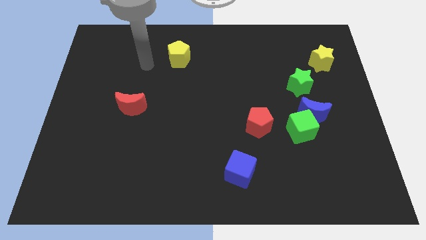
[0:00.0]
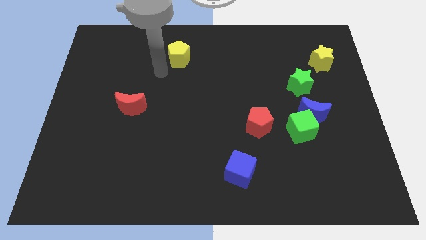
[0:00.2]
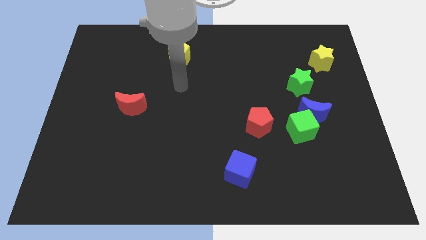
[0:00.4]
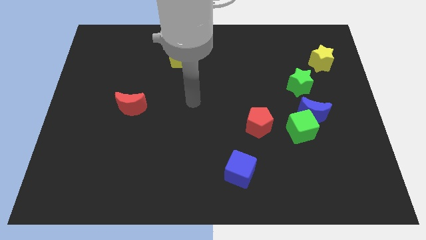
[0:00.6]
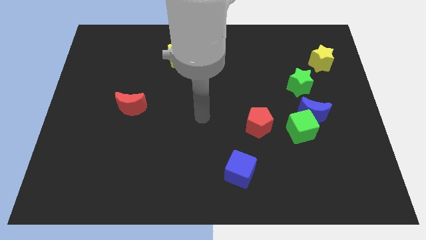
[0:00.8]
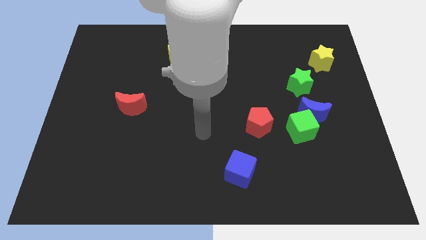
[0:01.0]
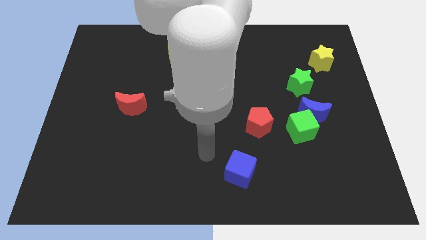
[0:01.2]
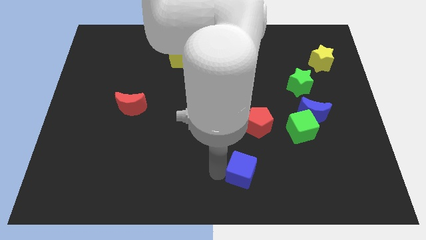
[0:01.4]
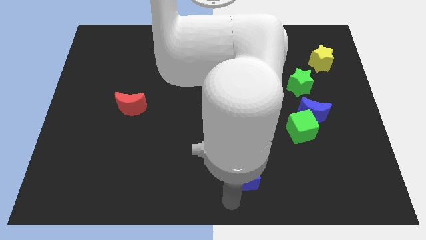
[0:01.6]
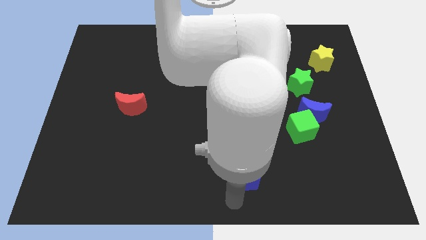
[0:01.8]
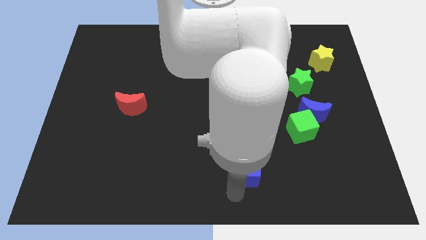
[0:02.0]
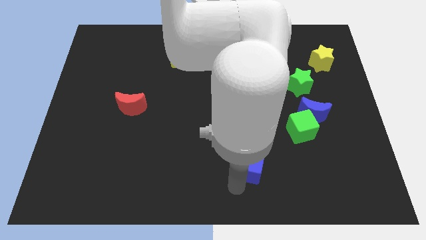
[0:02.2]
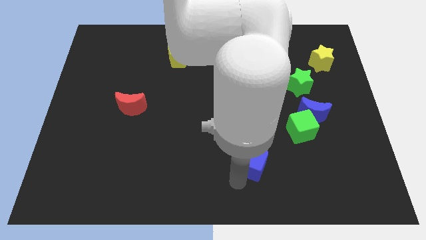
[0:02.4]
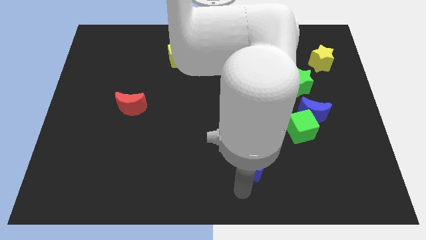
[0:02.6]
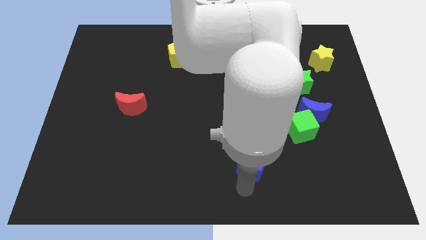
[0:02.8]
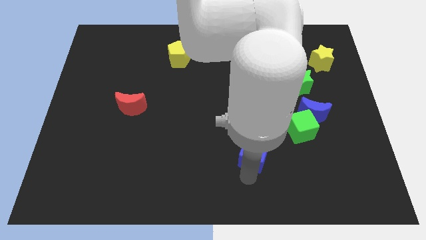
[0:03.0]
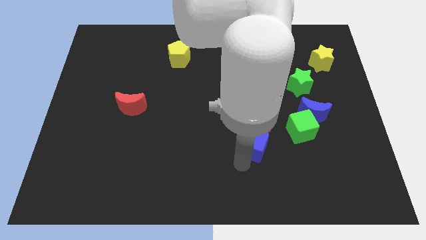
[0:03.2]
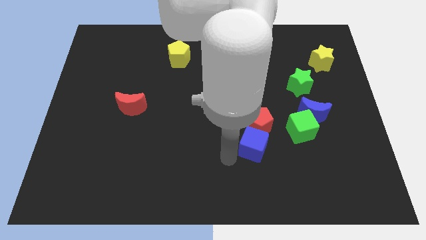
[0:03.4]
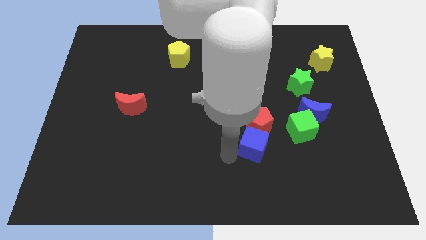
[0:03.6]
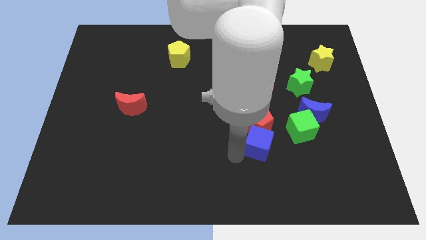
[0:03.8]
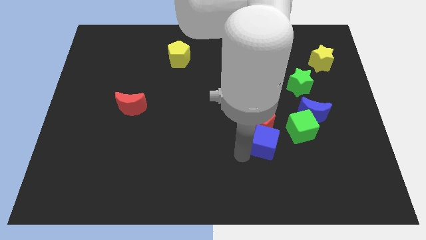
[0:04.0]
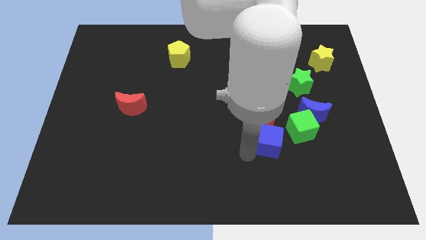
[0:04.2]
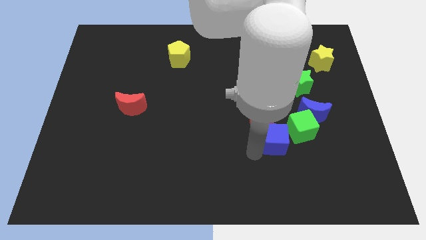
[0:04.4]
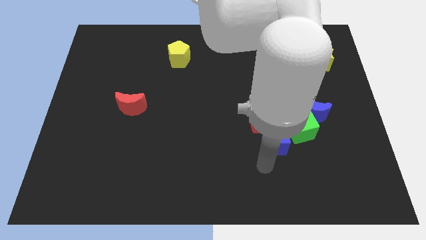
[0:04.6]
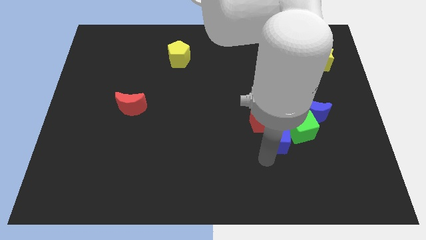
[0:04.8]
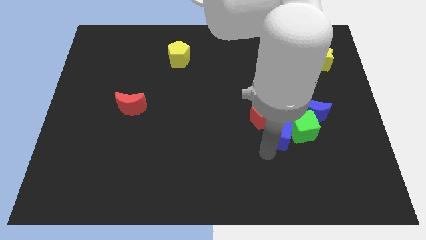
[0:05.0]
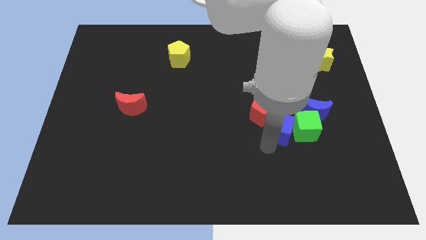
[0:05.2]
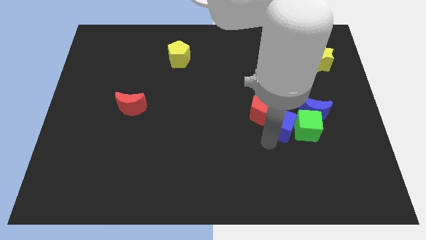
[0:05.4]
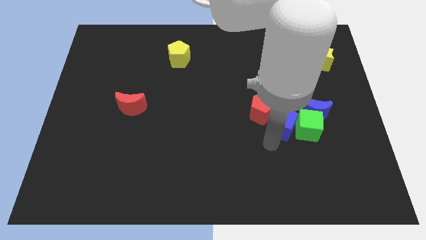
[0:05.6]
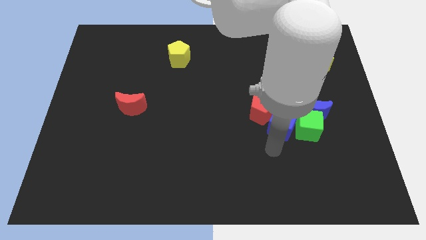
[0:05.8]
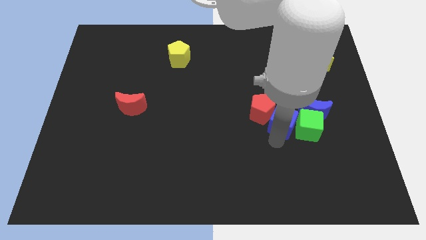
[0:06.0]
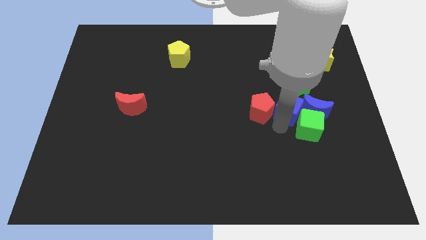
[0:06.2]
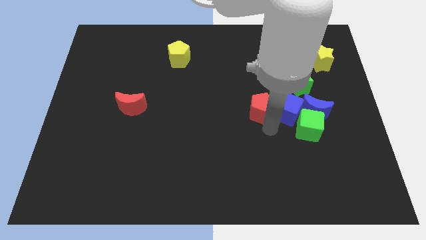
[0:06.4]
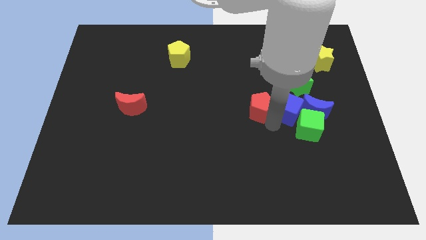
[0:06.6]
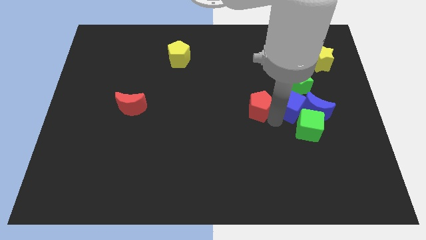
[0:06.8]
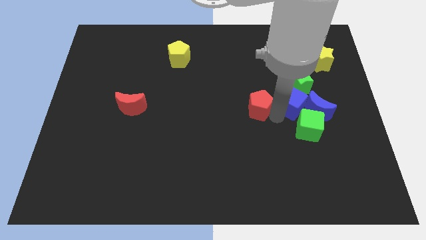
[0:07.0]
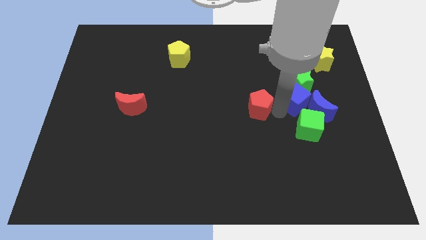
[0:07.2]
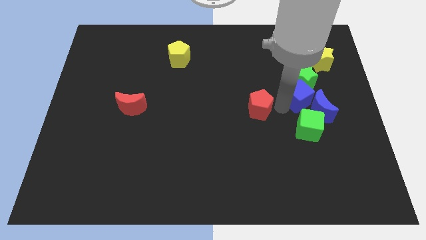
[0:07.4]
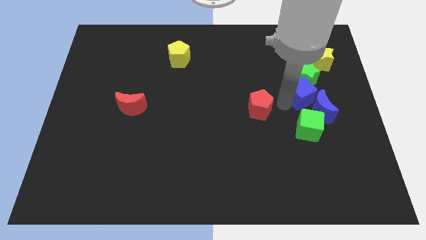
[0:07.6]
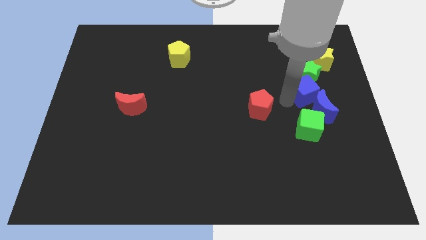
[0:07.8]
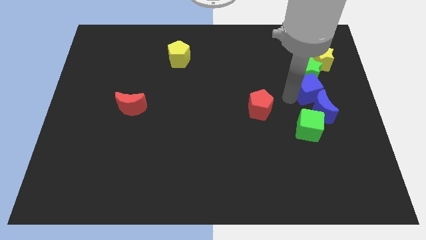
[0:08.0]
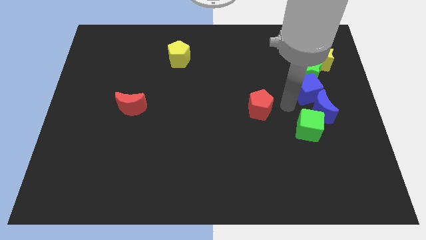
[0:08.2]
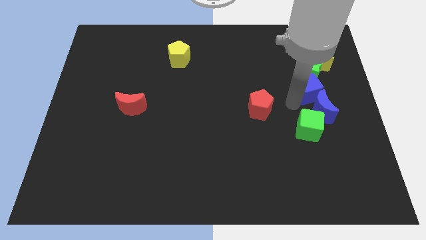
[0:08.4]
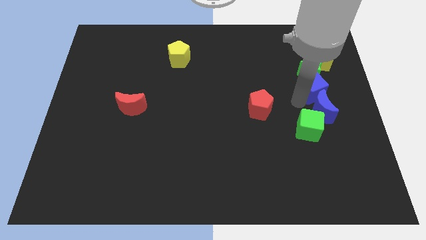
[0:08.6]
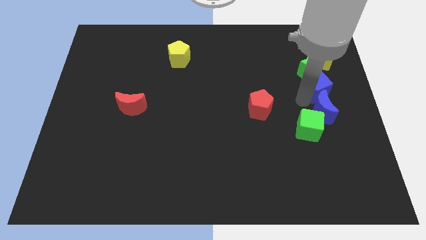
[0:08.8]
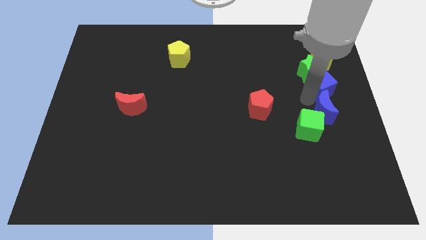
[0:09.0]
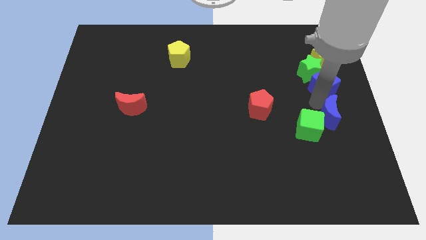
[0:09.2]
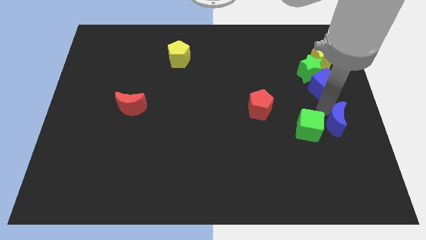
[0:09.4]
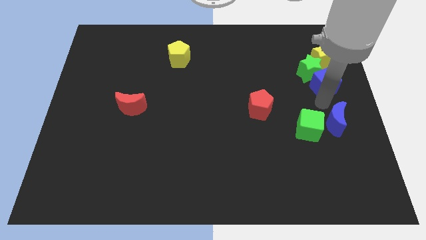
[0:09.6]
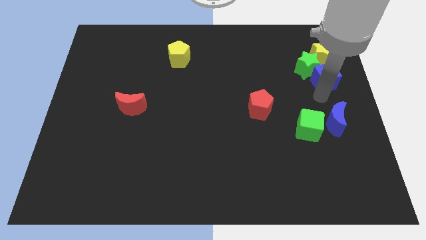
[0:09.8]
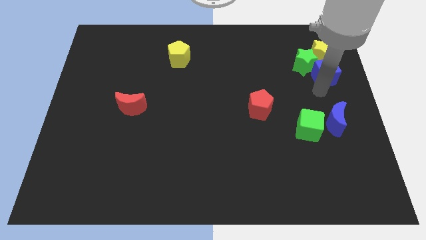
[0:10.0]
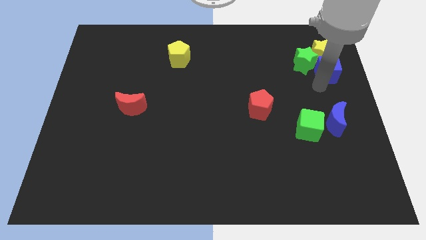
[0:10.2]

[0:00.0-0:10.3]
move the blue cube next to the yellow star

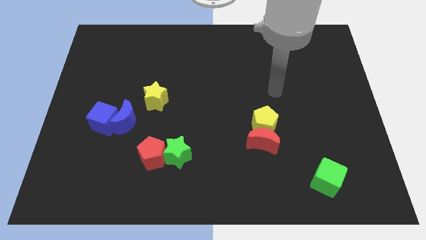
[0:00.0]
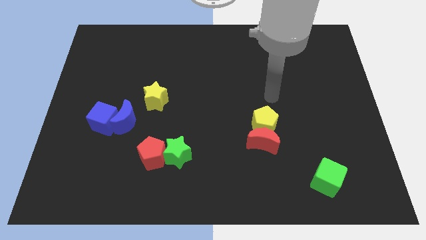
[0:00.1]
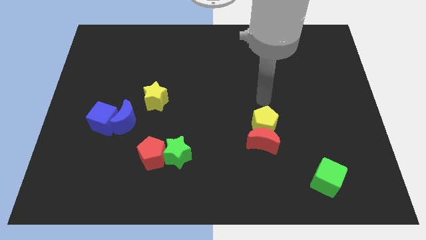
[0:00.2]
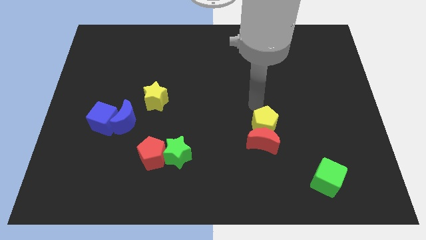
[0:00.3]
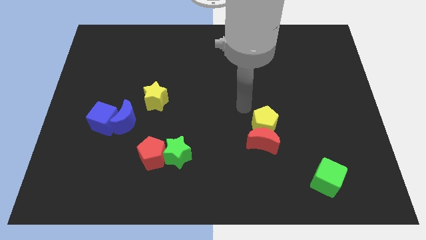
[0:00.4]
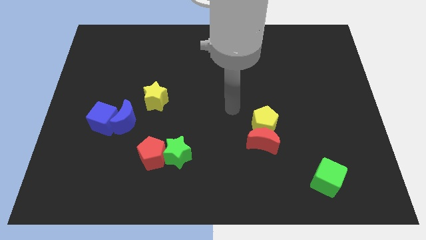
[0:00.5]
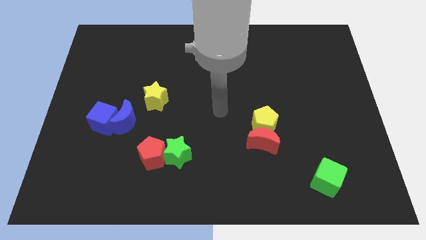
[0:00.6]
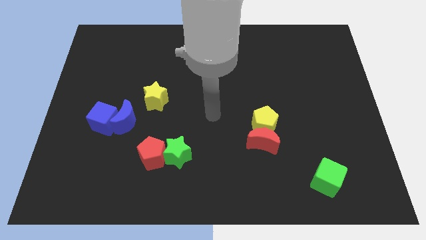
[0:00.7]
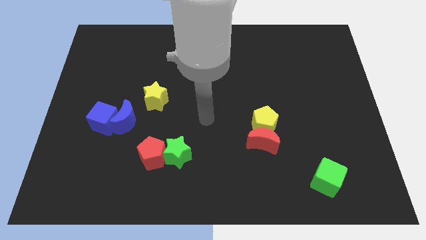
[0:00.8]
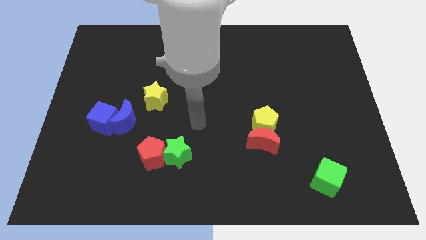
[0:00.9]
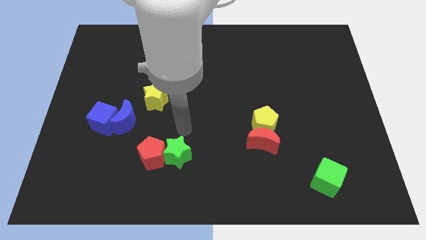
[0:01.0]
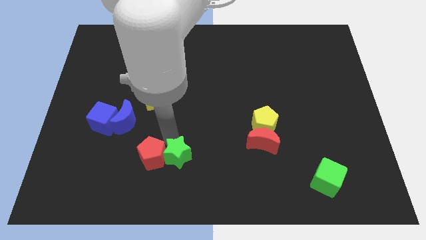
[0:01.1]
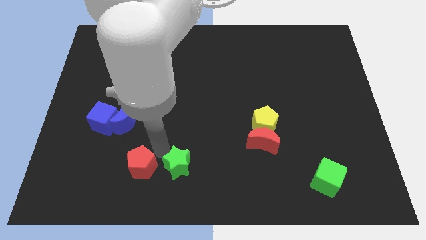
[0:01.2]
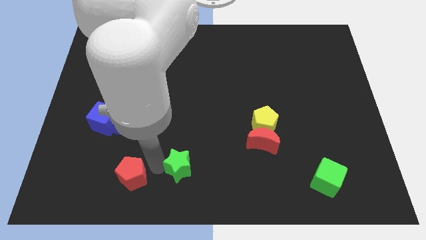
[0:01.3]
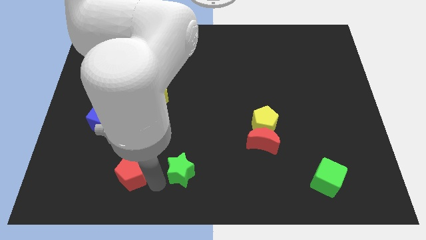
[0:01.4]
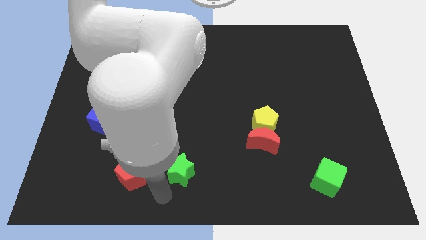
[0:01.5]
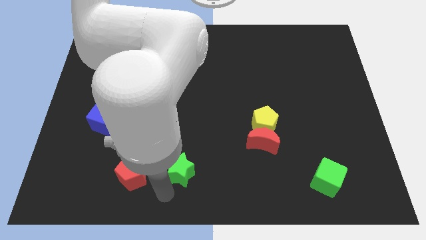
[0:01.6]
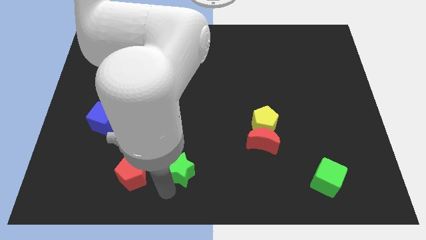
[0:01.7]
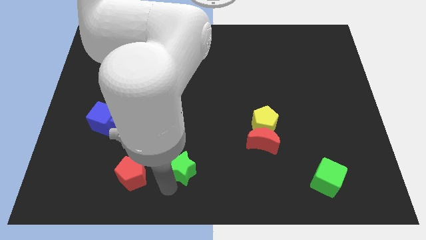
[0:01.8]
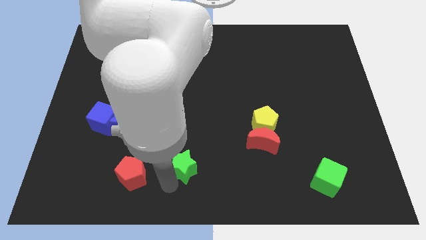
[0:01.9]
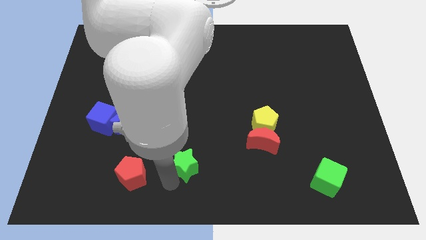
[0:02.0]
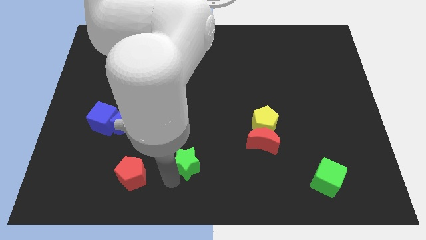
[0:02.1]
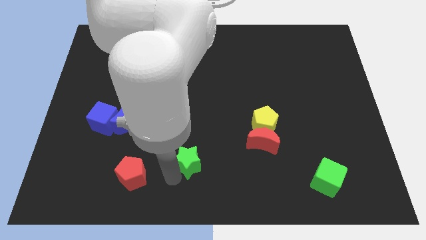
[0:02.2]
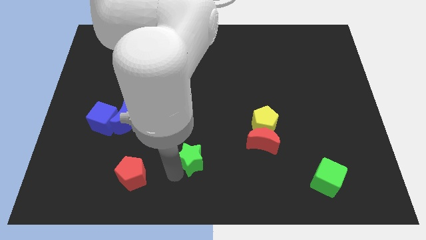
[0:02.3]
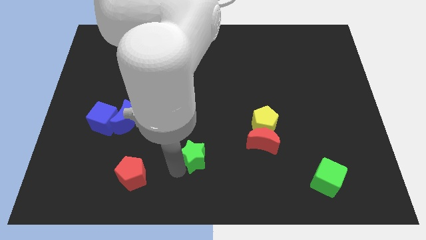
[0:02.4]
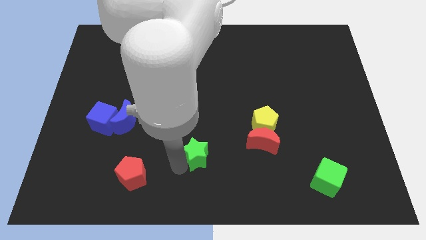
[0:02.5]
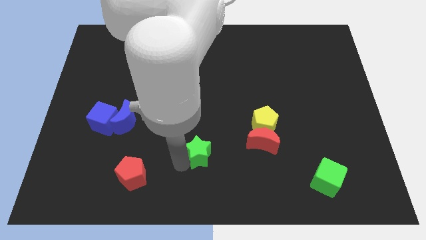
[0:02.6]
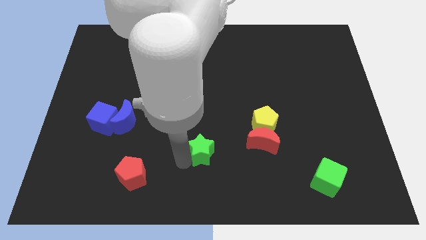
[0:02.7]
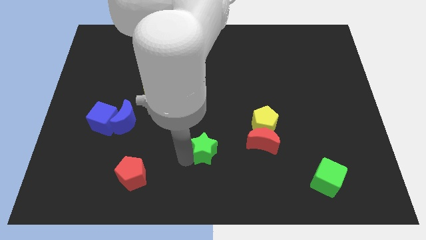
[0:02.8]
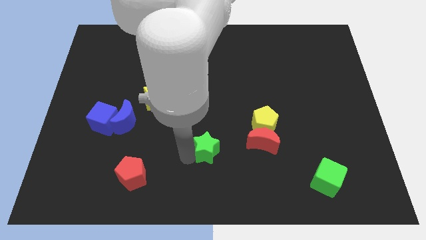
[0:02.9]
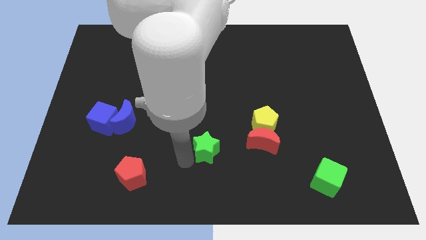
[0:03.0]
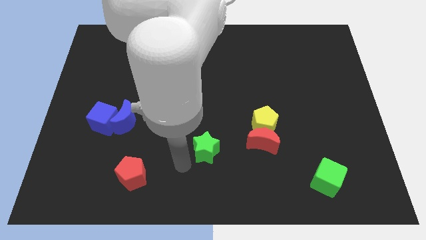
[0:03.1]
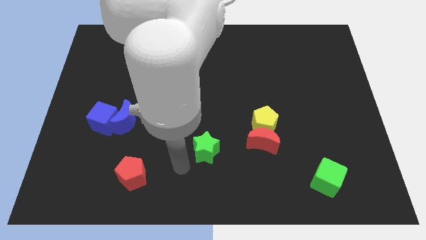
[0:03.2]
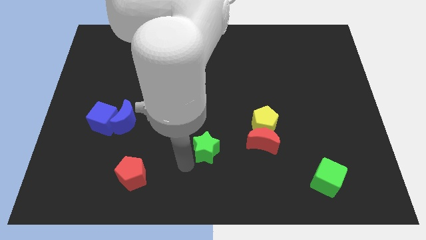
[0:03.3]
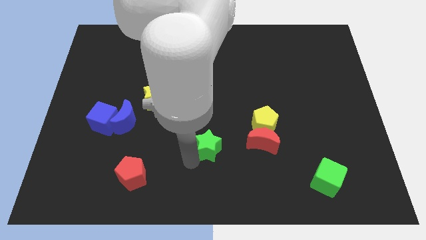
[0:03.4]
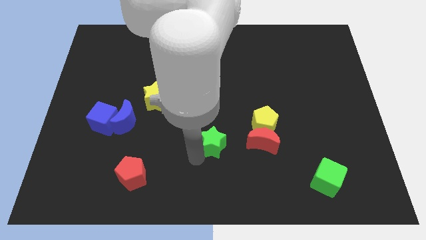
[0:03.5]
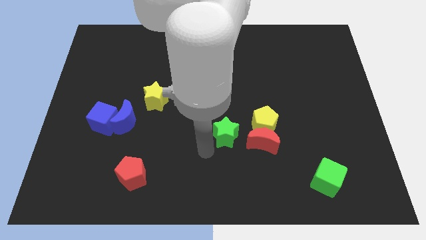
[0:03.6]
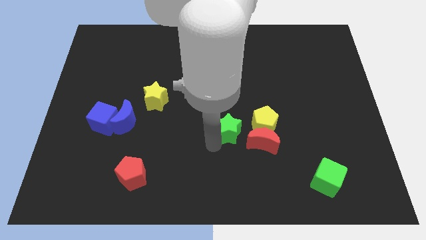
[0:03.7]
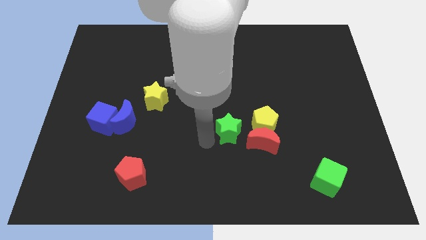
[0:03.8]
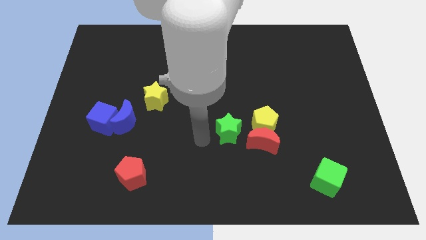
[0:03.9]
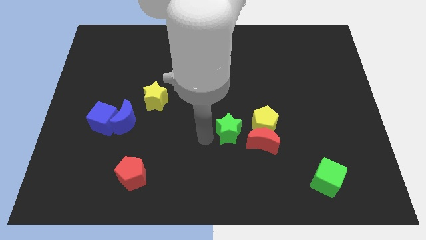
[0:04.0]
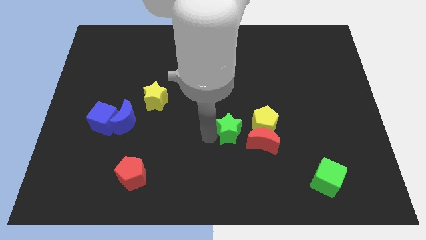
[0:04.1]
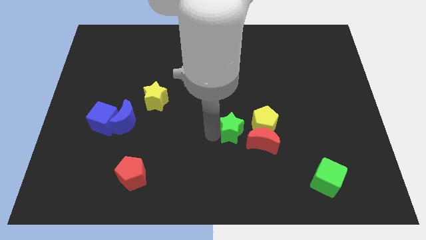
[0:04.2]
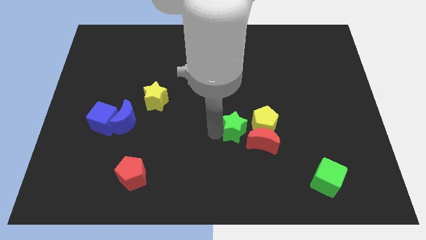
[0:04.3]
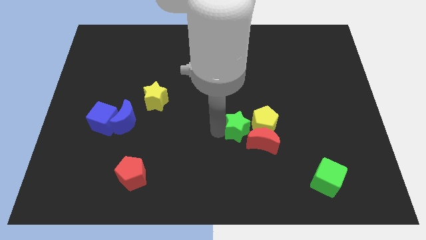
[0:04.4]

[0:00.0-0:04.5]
put the green star close to the yellow pentagon
